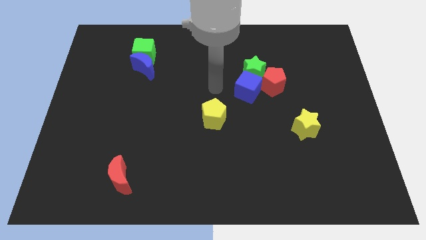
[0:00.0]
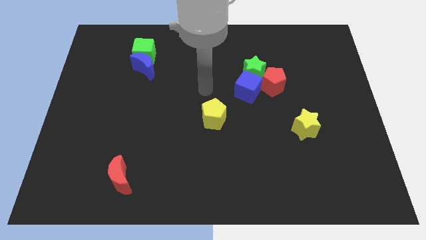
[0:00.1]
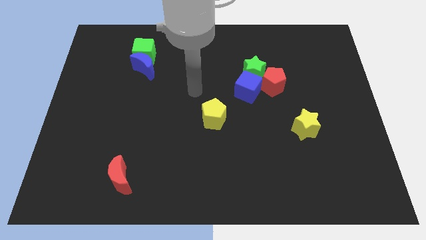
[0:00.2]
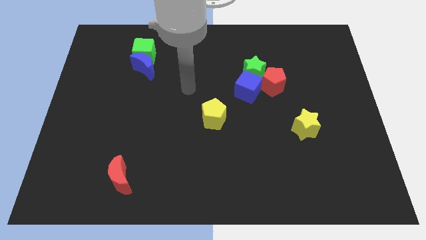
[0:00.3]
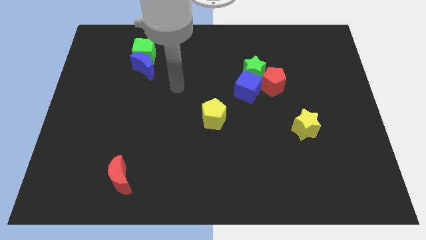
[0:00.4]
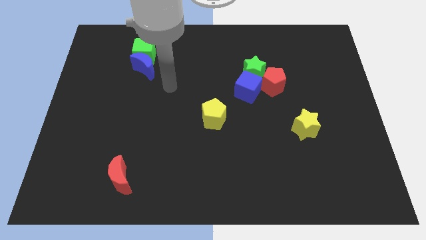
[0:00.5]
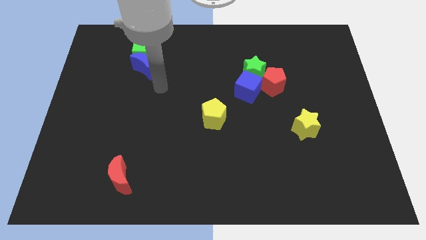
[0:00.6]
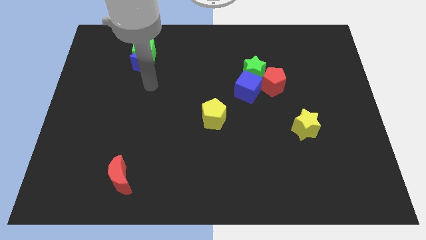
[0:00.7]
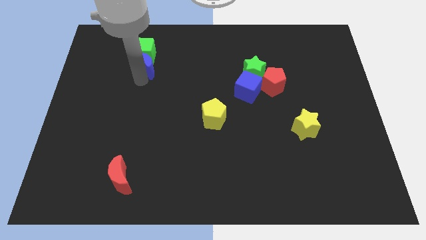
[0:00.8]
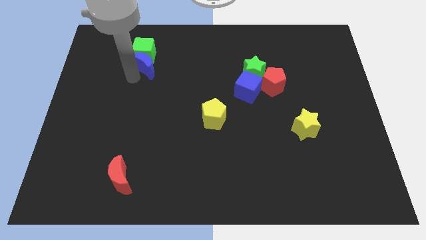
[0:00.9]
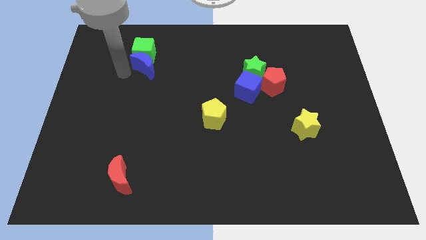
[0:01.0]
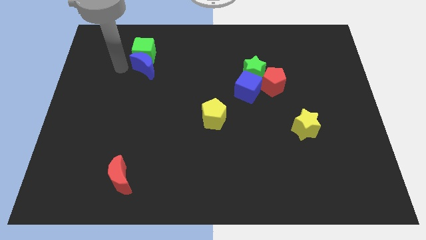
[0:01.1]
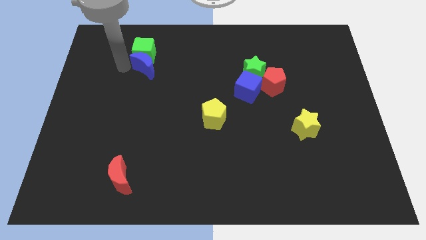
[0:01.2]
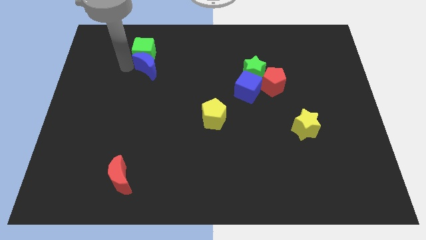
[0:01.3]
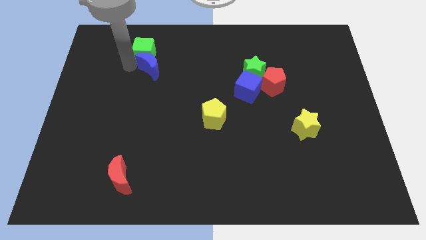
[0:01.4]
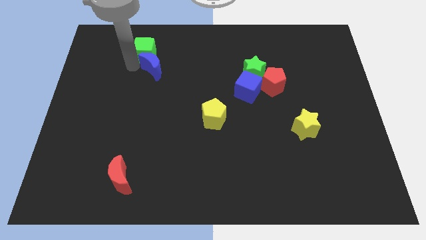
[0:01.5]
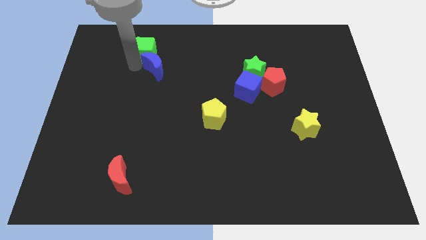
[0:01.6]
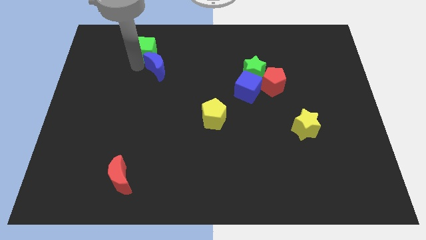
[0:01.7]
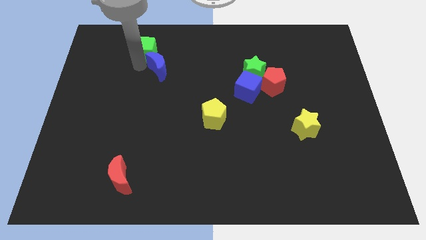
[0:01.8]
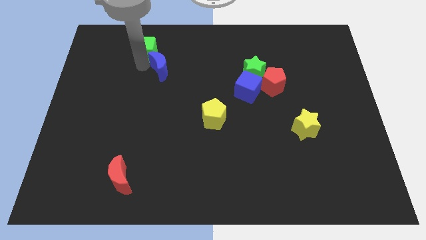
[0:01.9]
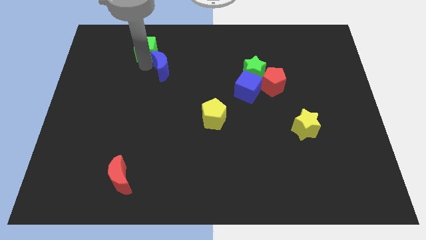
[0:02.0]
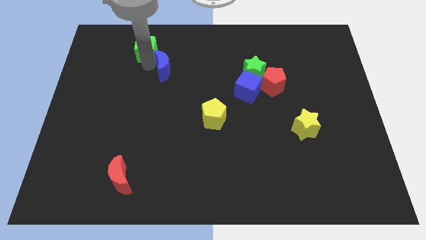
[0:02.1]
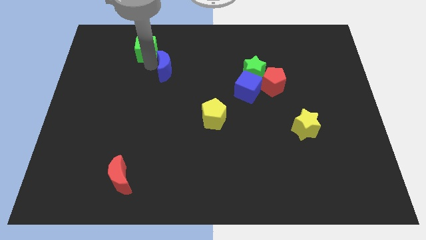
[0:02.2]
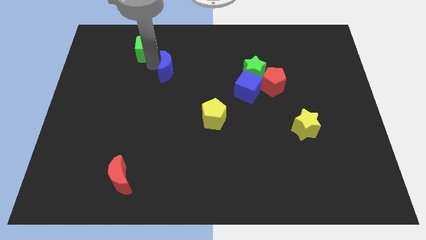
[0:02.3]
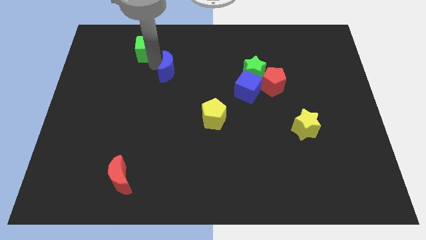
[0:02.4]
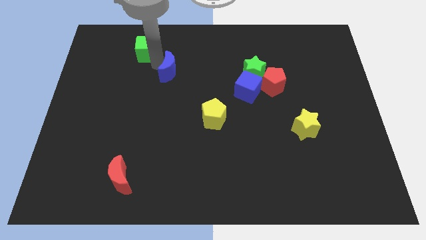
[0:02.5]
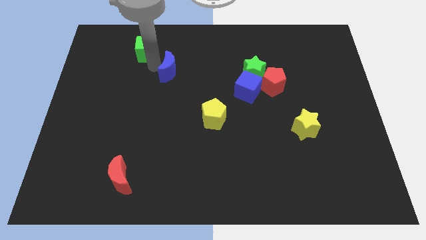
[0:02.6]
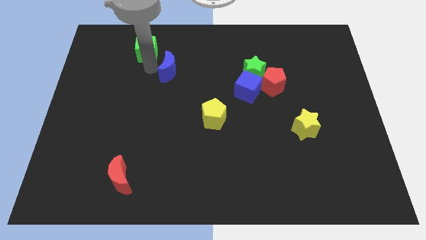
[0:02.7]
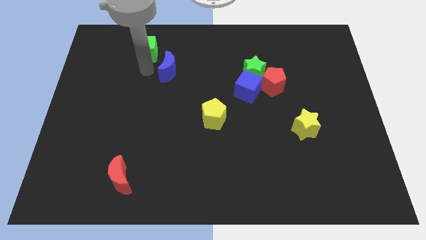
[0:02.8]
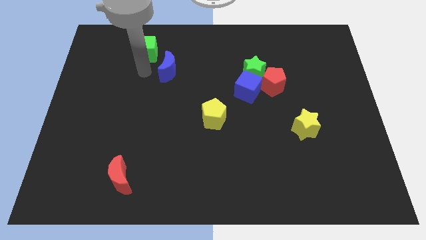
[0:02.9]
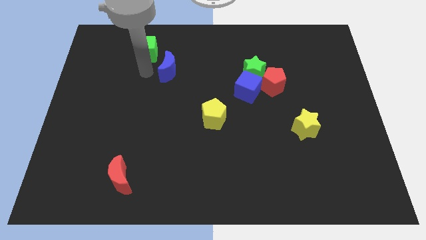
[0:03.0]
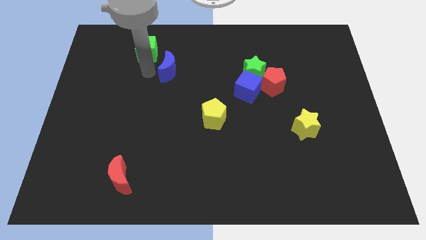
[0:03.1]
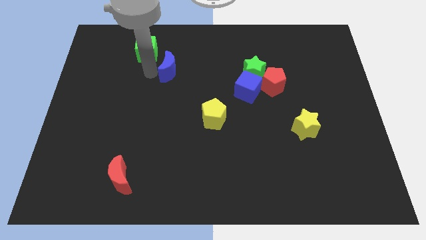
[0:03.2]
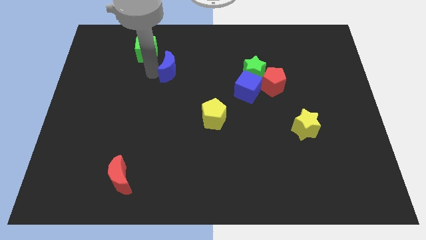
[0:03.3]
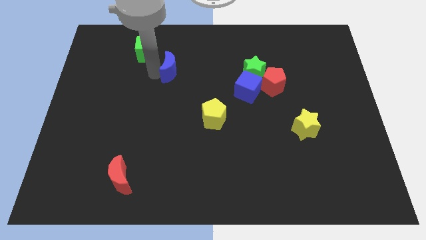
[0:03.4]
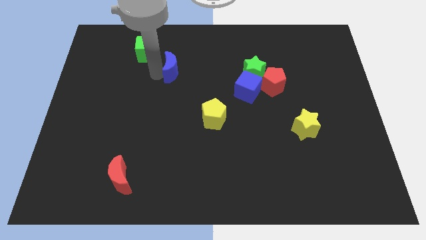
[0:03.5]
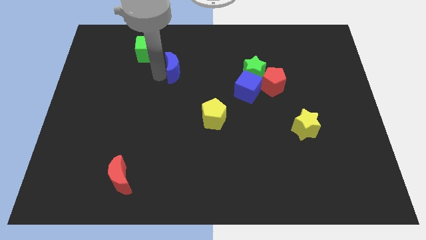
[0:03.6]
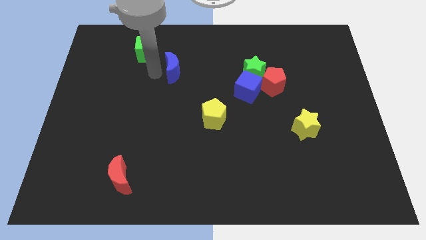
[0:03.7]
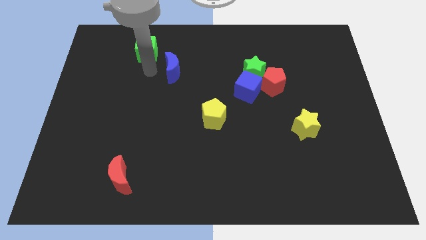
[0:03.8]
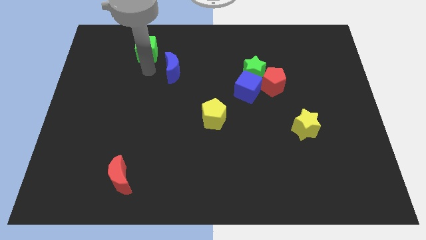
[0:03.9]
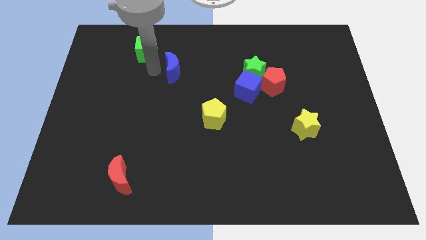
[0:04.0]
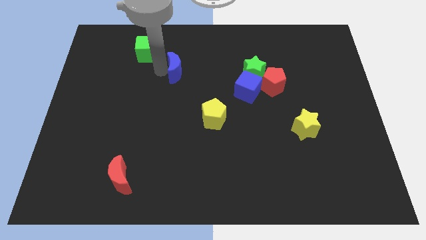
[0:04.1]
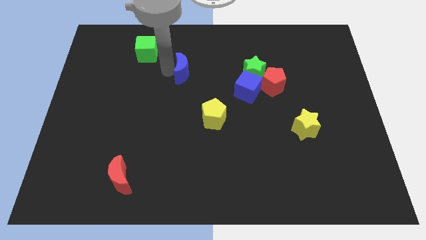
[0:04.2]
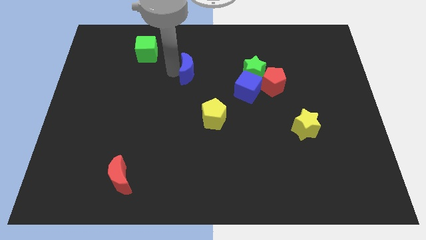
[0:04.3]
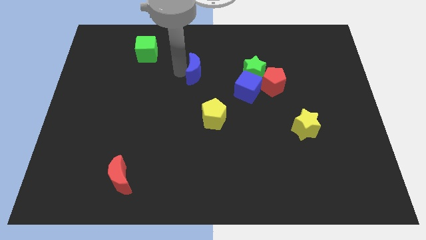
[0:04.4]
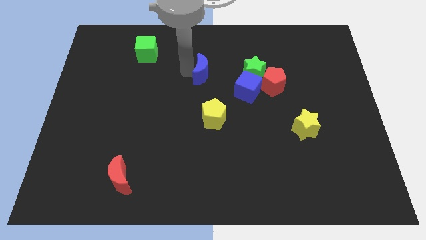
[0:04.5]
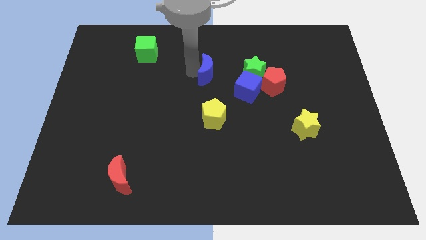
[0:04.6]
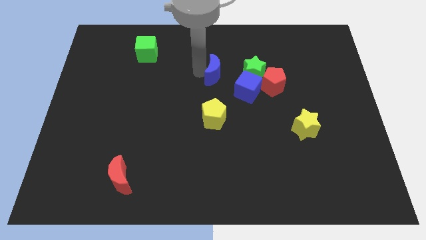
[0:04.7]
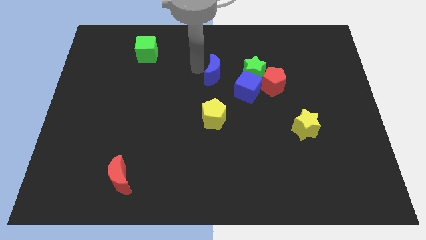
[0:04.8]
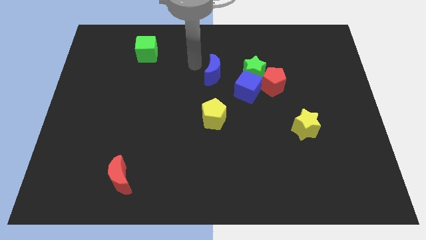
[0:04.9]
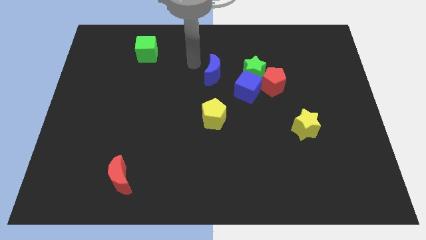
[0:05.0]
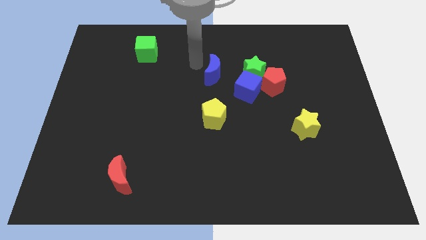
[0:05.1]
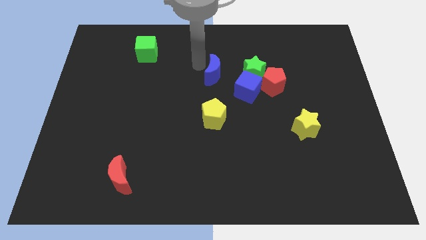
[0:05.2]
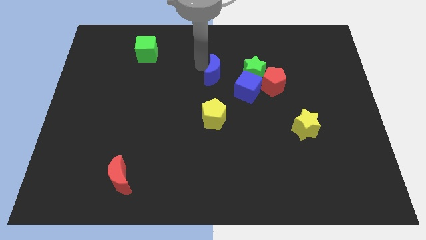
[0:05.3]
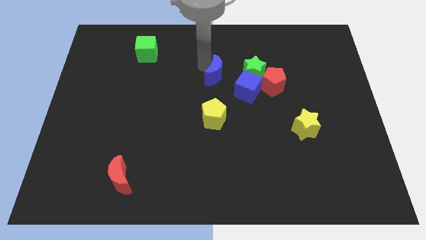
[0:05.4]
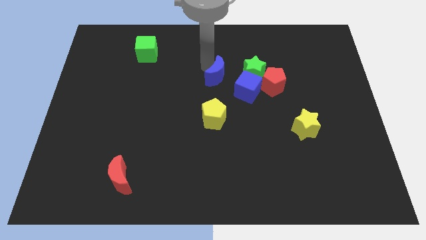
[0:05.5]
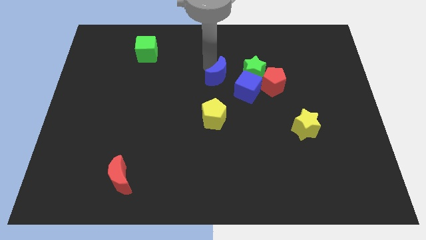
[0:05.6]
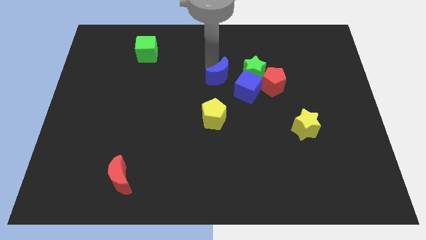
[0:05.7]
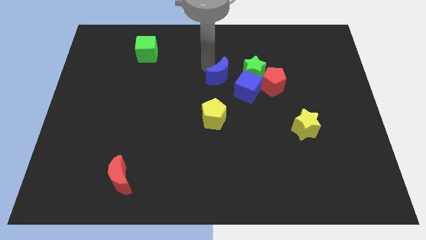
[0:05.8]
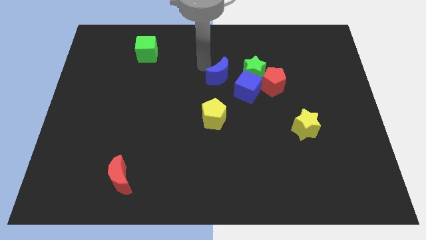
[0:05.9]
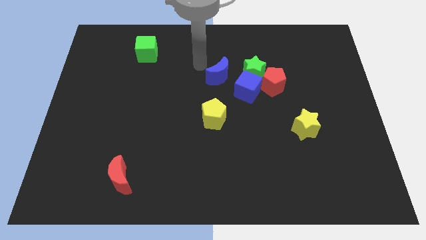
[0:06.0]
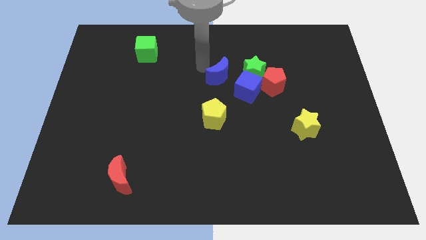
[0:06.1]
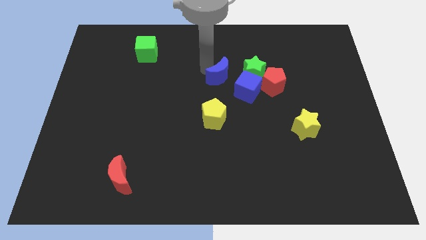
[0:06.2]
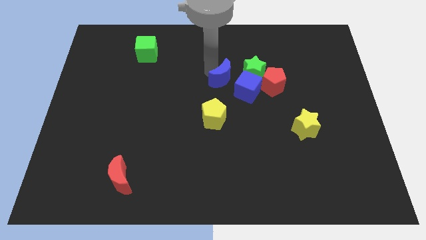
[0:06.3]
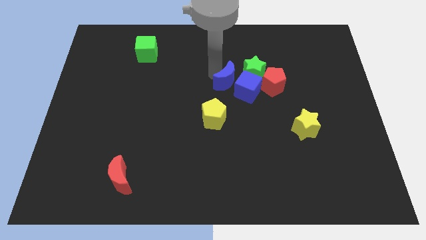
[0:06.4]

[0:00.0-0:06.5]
slide the blue moon next to the blue cube

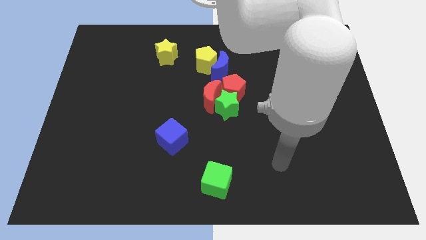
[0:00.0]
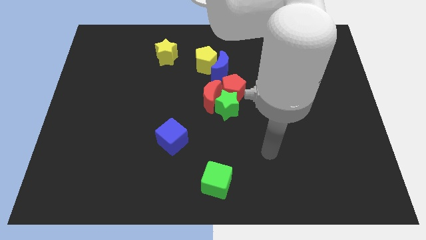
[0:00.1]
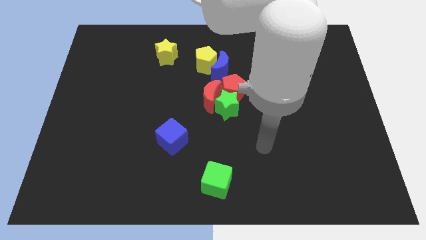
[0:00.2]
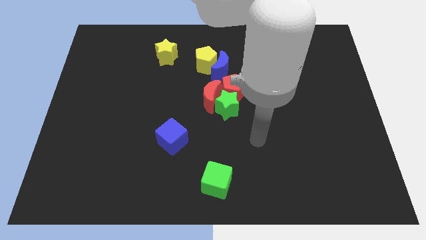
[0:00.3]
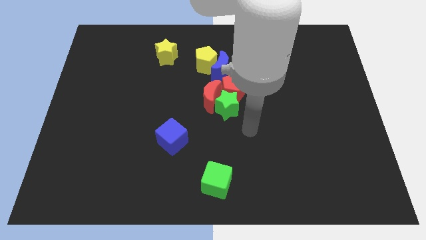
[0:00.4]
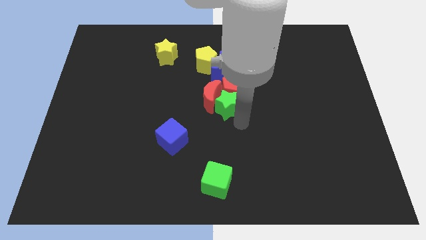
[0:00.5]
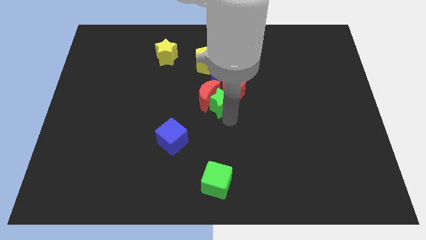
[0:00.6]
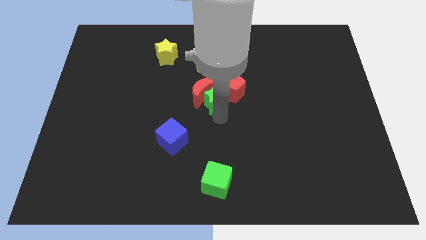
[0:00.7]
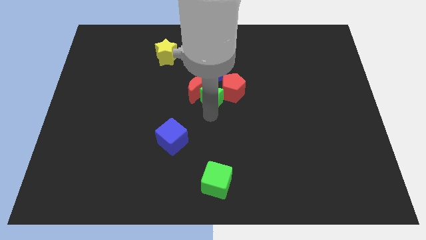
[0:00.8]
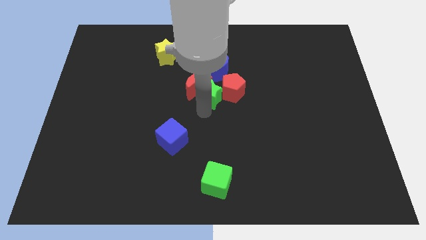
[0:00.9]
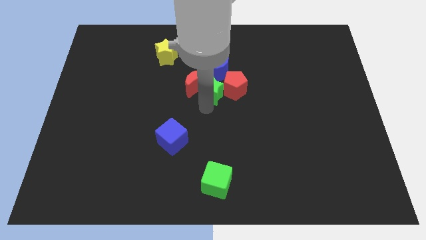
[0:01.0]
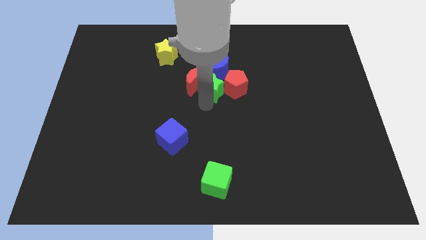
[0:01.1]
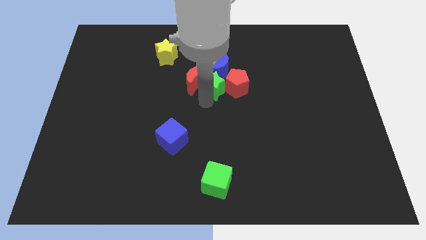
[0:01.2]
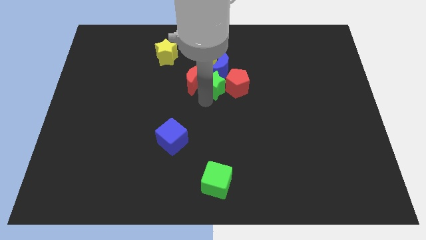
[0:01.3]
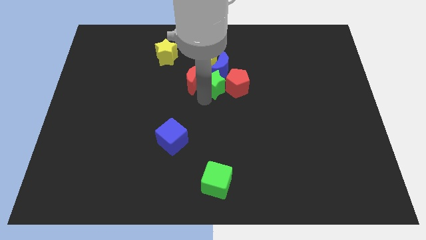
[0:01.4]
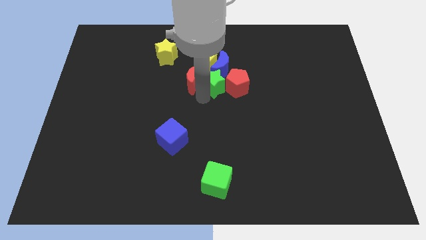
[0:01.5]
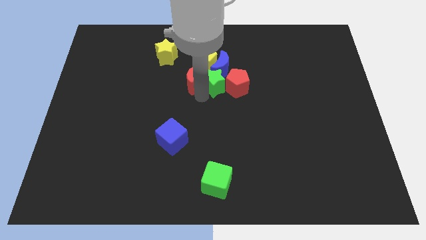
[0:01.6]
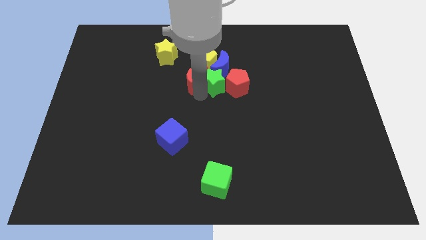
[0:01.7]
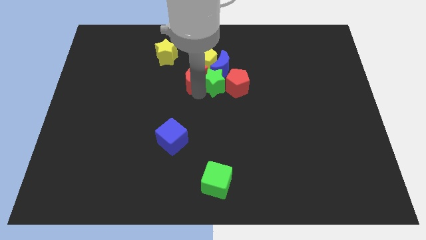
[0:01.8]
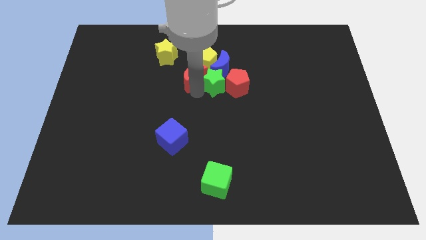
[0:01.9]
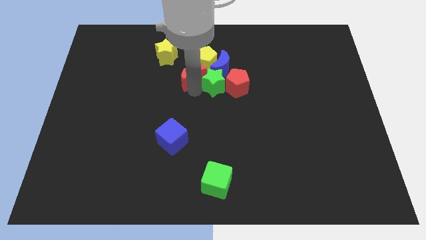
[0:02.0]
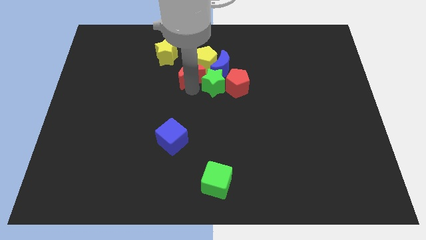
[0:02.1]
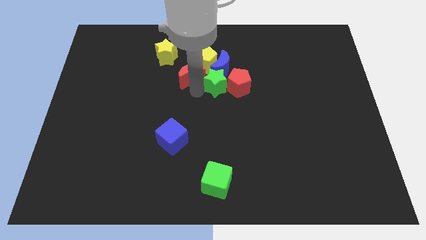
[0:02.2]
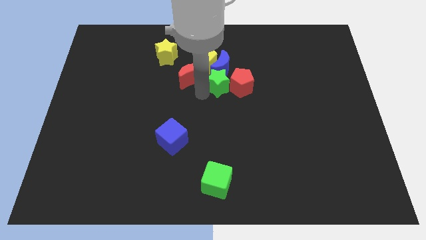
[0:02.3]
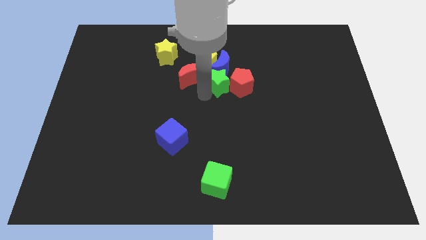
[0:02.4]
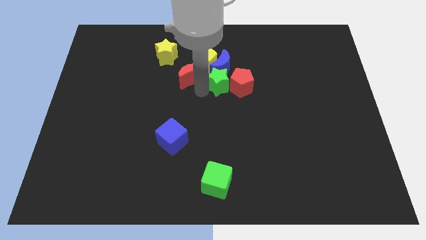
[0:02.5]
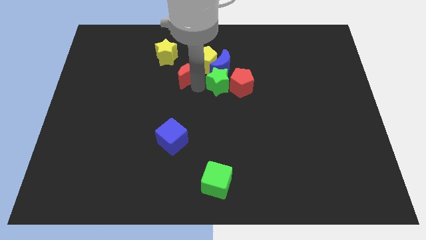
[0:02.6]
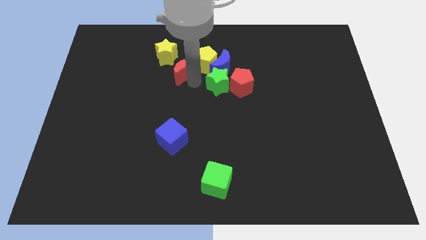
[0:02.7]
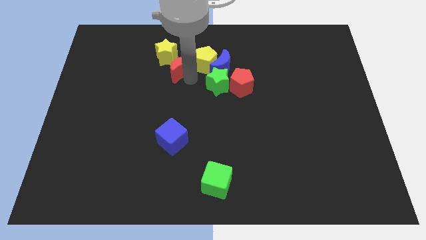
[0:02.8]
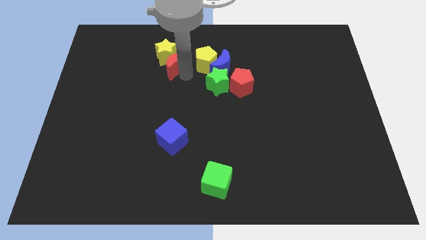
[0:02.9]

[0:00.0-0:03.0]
push the red moon to the yellow star
